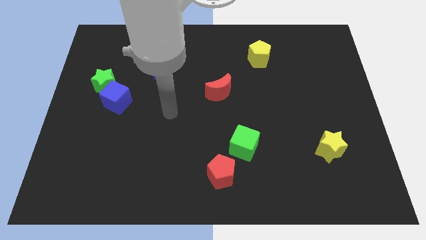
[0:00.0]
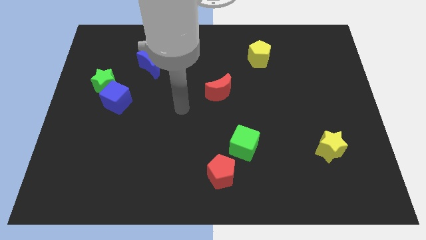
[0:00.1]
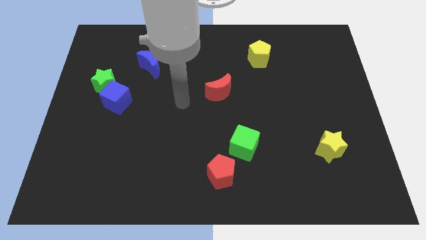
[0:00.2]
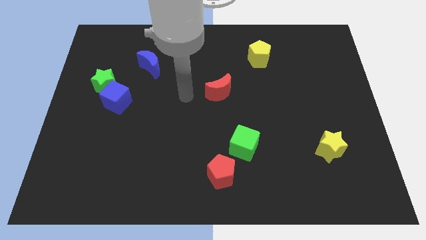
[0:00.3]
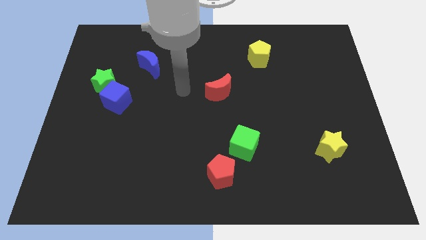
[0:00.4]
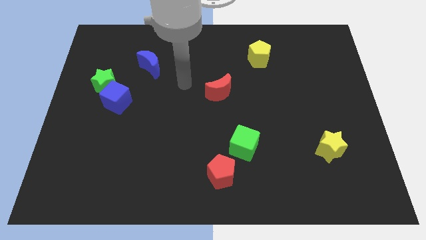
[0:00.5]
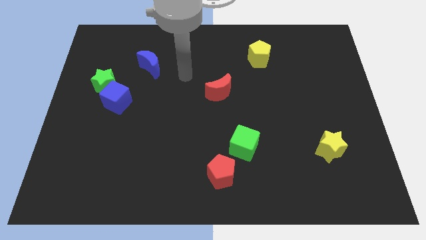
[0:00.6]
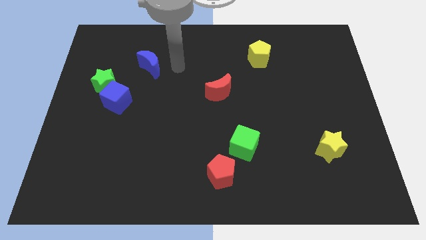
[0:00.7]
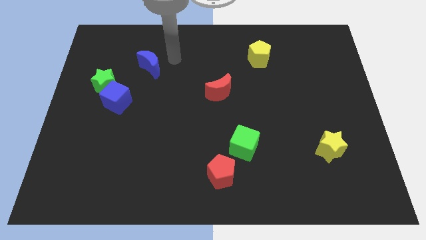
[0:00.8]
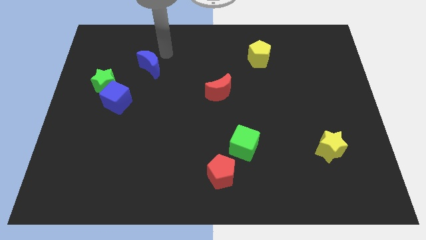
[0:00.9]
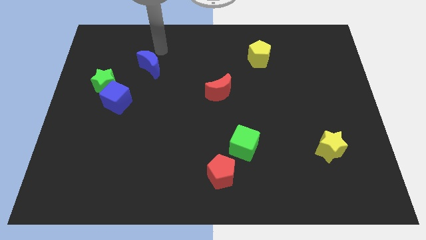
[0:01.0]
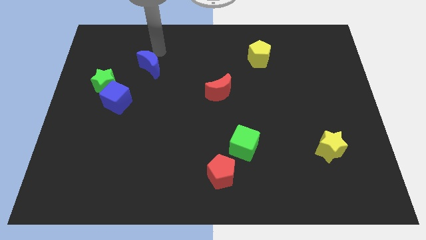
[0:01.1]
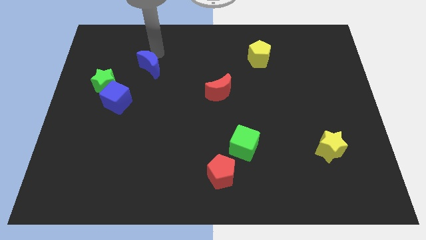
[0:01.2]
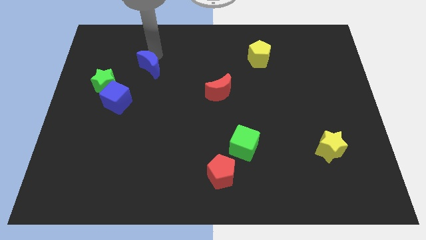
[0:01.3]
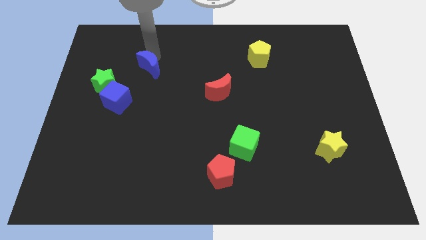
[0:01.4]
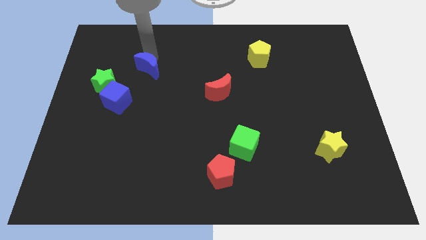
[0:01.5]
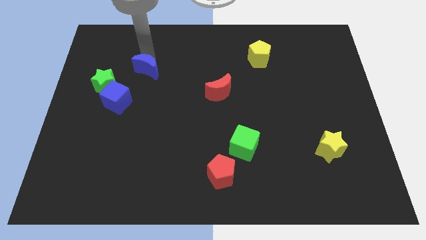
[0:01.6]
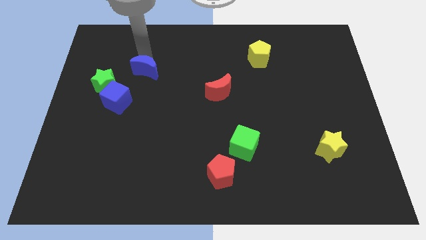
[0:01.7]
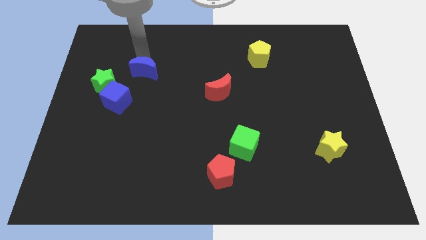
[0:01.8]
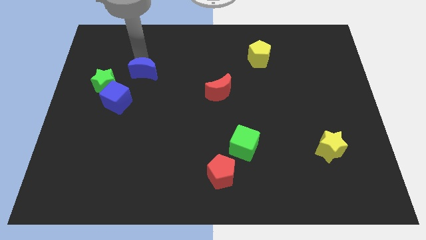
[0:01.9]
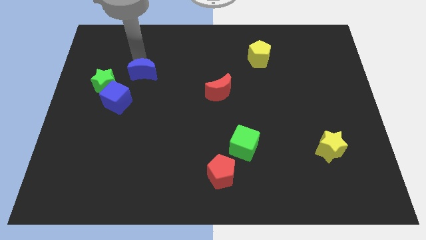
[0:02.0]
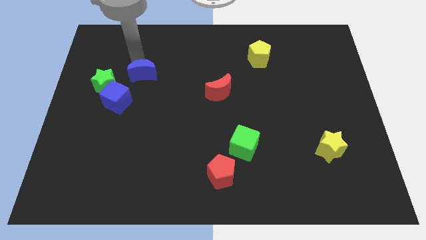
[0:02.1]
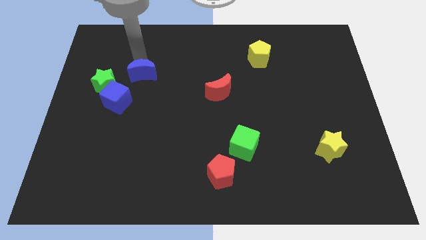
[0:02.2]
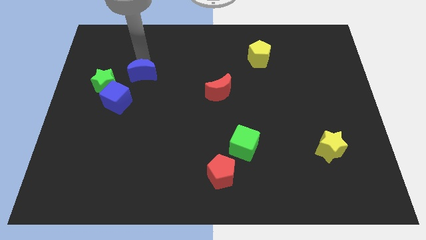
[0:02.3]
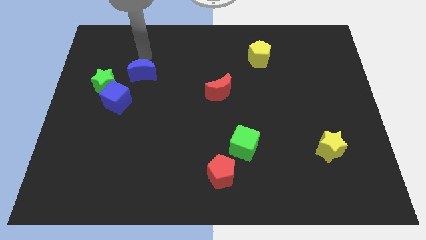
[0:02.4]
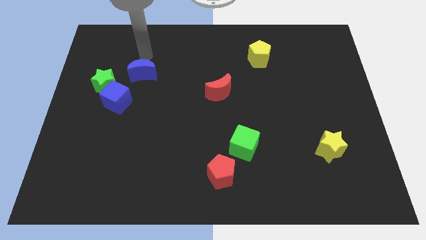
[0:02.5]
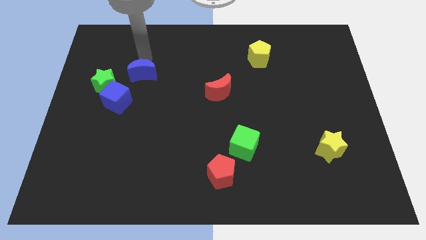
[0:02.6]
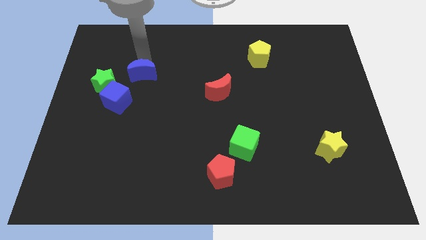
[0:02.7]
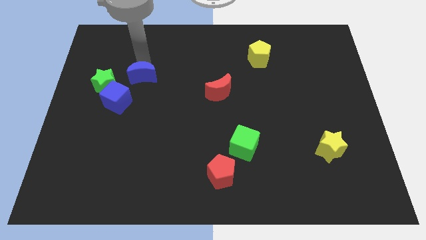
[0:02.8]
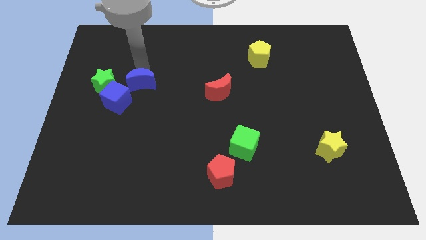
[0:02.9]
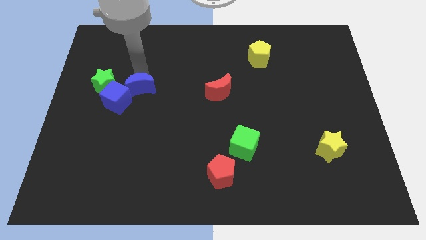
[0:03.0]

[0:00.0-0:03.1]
slide the blue moon a bit downwards

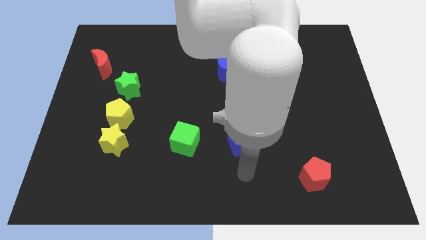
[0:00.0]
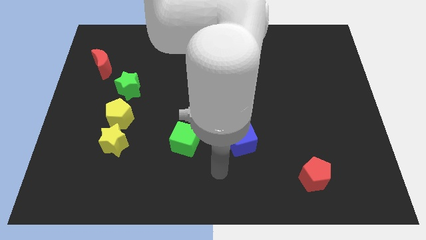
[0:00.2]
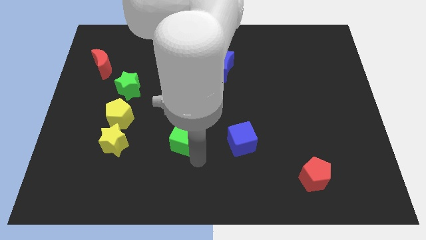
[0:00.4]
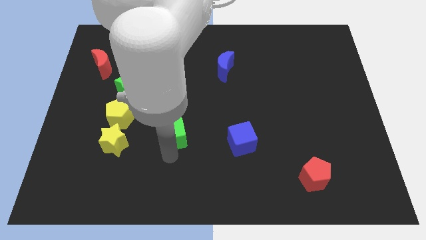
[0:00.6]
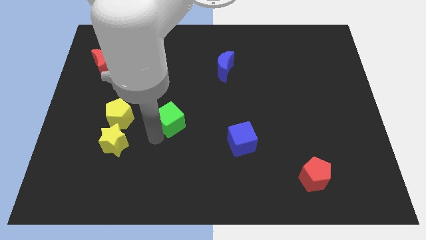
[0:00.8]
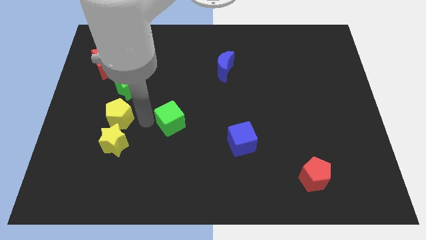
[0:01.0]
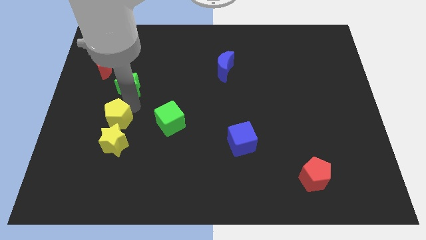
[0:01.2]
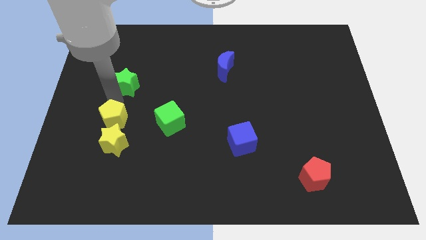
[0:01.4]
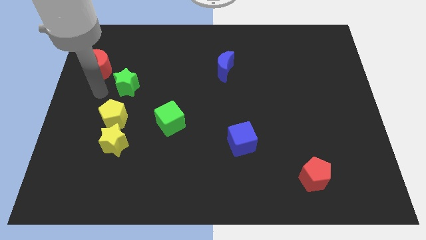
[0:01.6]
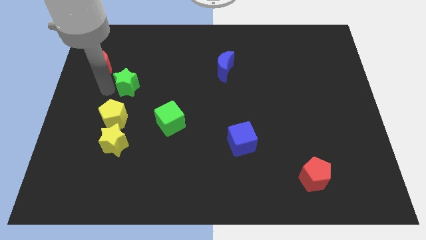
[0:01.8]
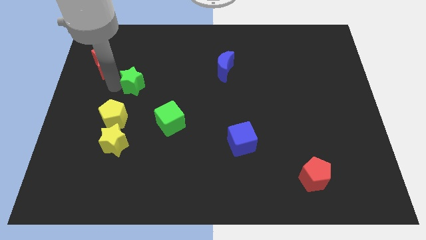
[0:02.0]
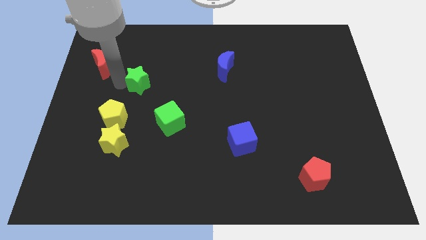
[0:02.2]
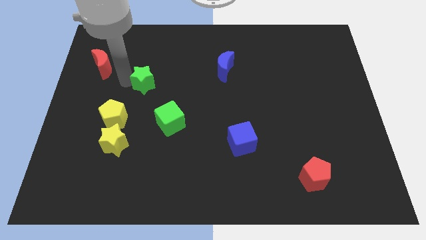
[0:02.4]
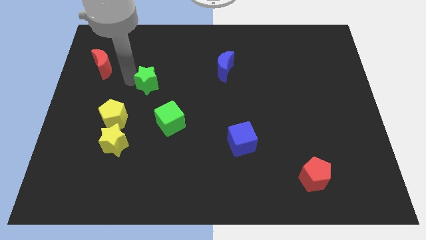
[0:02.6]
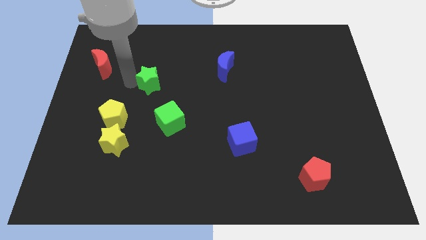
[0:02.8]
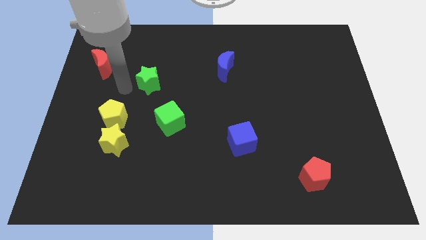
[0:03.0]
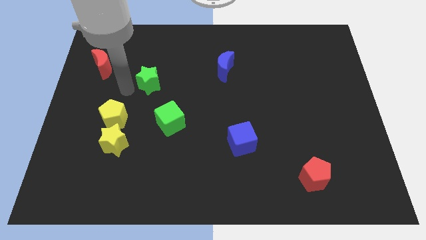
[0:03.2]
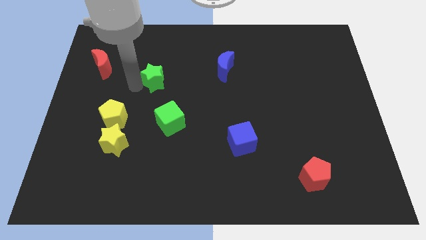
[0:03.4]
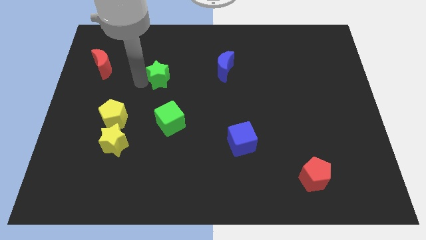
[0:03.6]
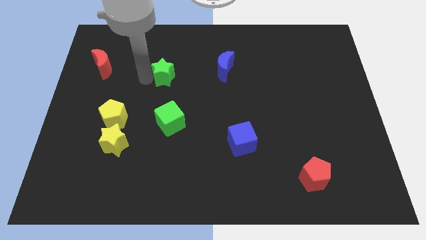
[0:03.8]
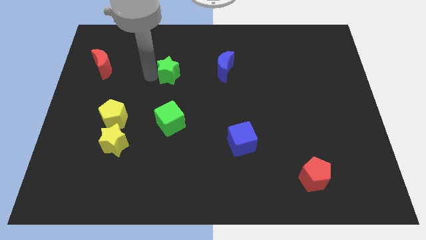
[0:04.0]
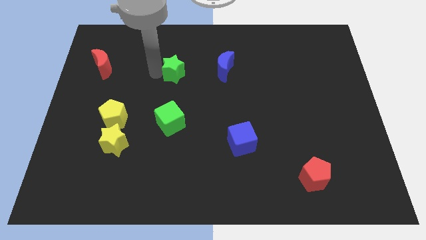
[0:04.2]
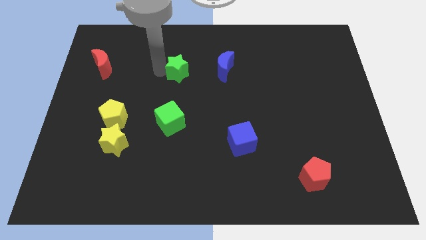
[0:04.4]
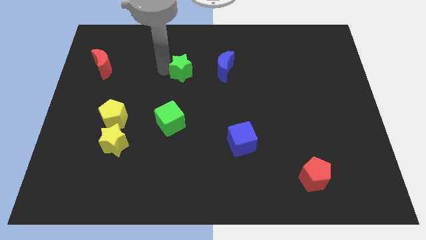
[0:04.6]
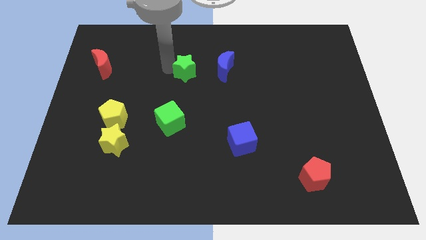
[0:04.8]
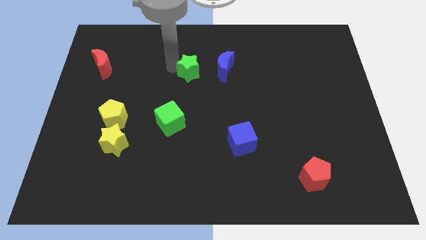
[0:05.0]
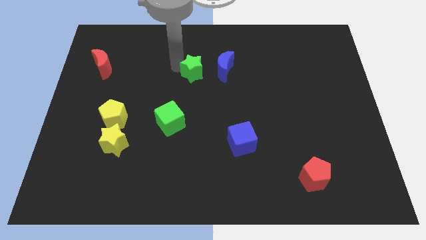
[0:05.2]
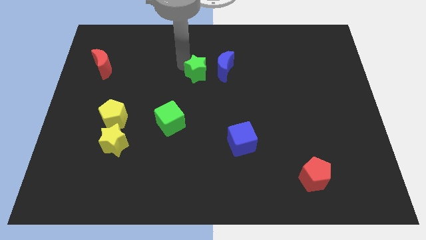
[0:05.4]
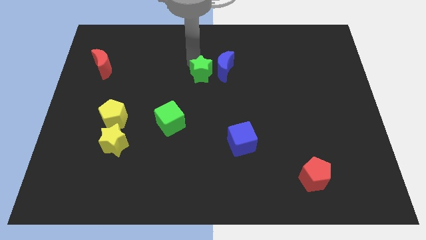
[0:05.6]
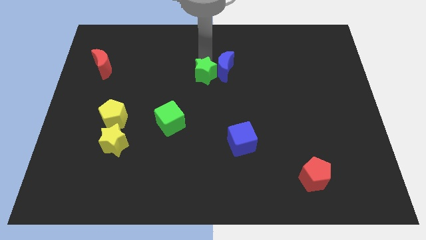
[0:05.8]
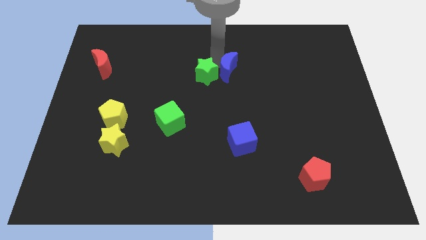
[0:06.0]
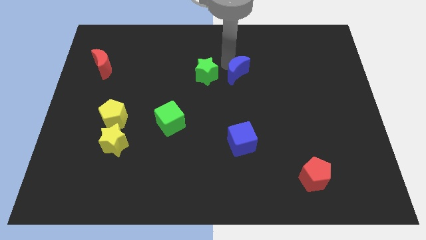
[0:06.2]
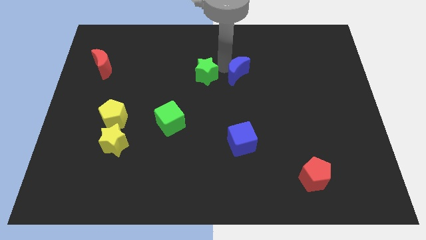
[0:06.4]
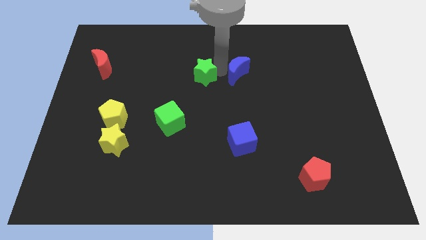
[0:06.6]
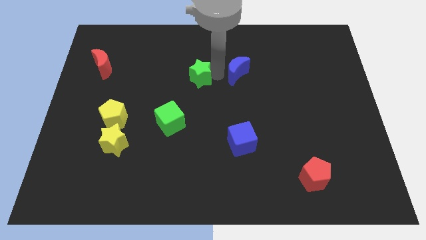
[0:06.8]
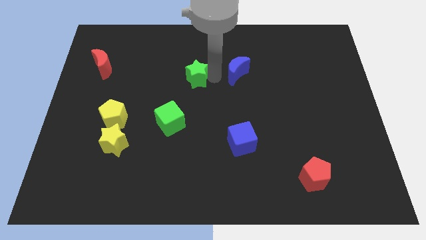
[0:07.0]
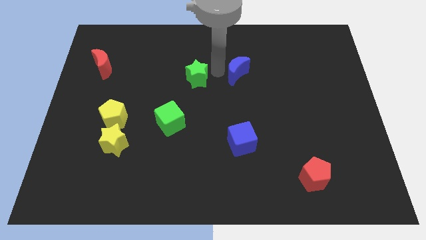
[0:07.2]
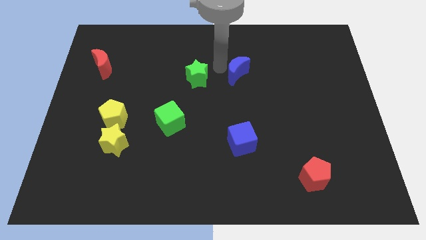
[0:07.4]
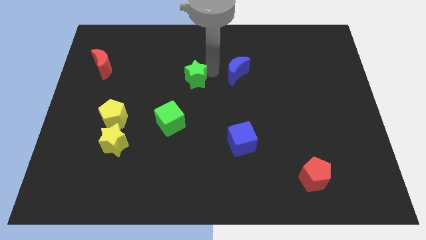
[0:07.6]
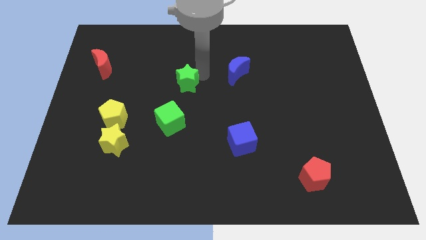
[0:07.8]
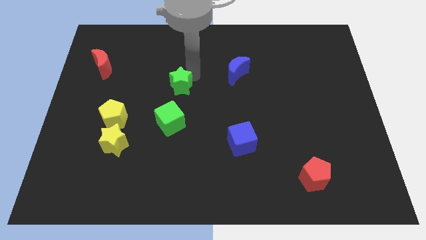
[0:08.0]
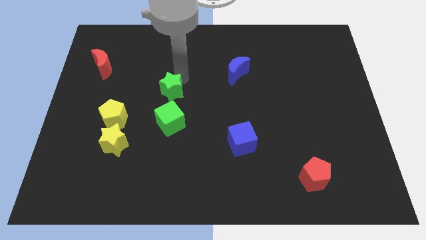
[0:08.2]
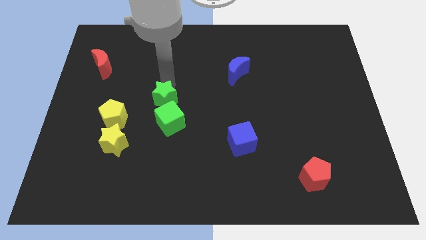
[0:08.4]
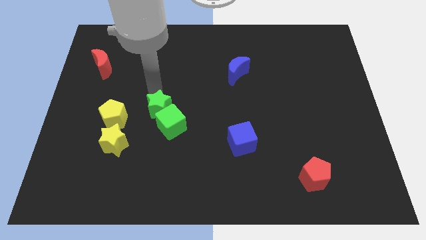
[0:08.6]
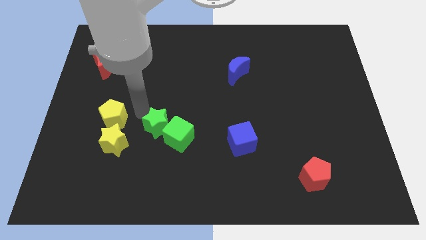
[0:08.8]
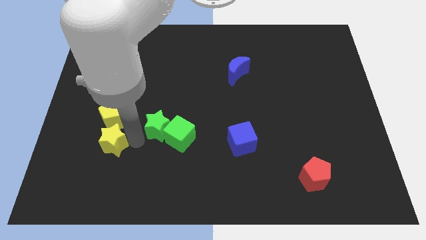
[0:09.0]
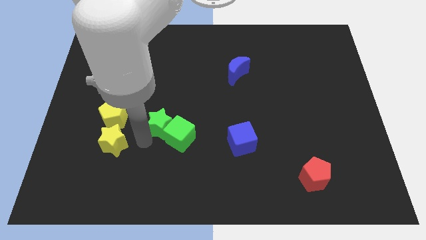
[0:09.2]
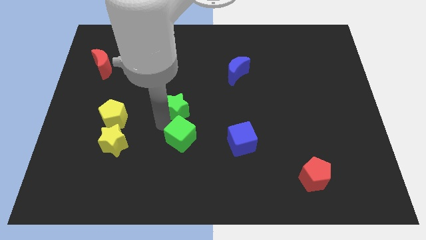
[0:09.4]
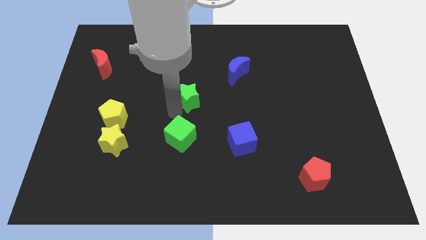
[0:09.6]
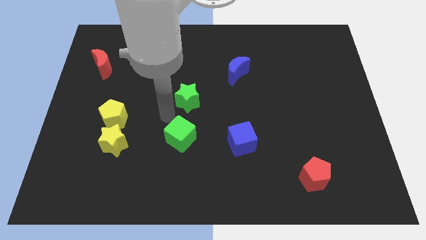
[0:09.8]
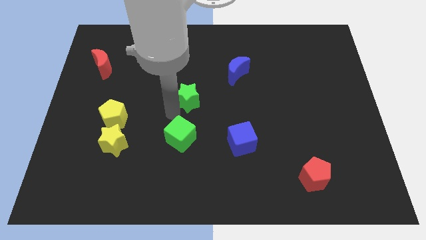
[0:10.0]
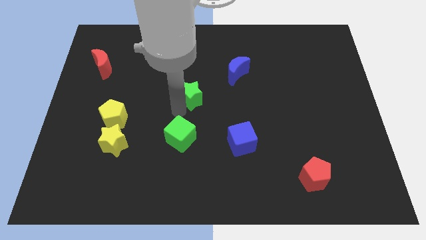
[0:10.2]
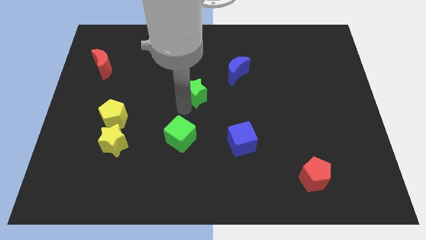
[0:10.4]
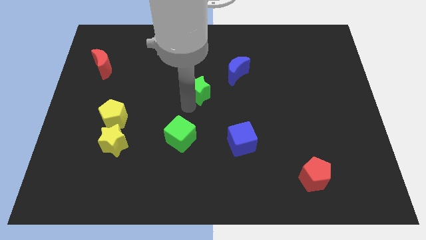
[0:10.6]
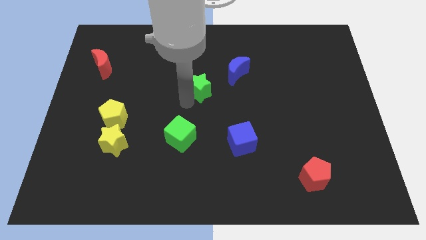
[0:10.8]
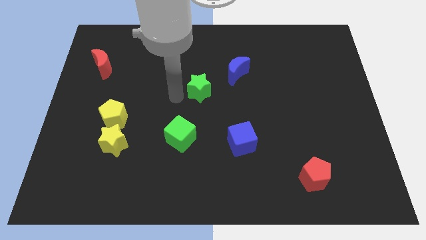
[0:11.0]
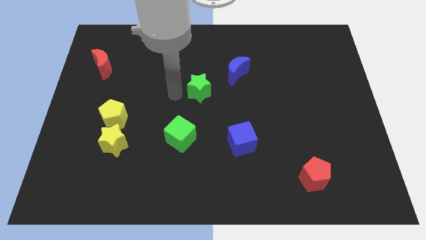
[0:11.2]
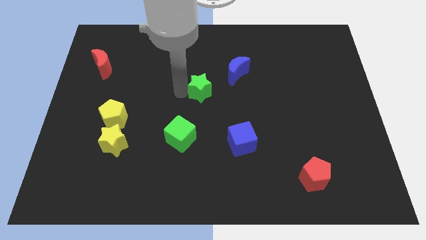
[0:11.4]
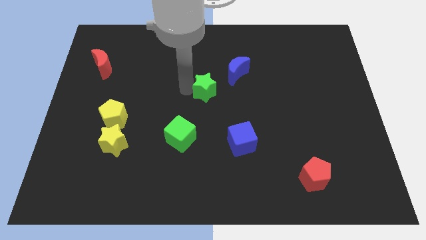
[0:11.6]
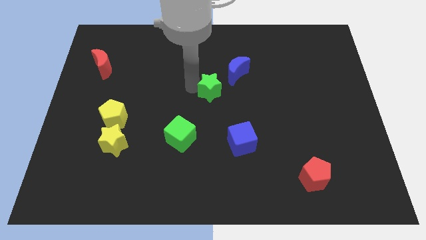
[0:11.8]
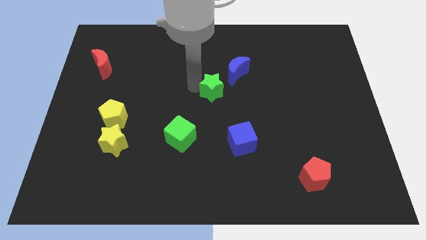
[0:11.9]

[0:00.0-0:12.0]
push the green star to the right
